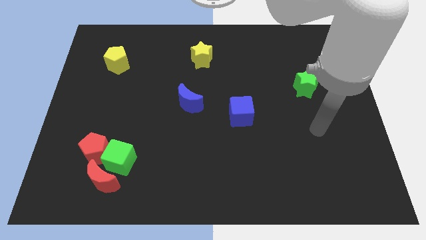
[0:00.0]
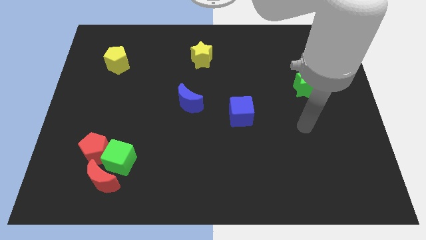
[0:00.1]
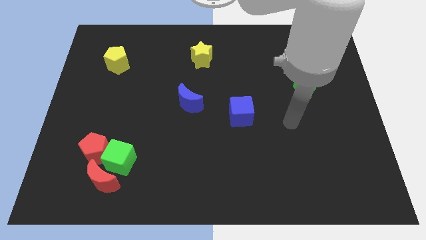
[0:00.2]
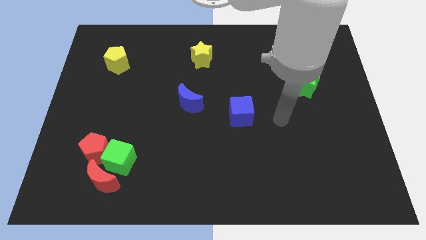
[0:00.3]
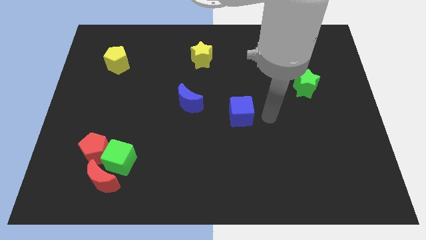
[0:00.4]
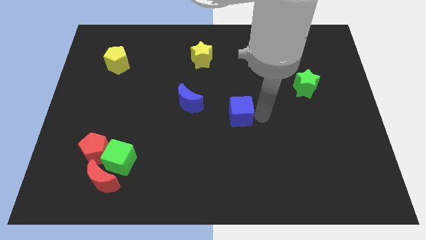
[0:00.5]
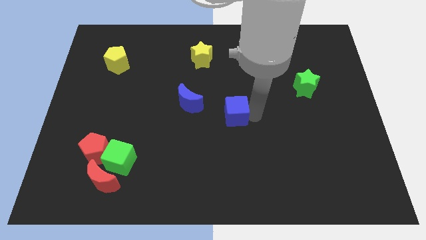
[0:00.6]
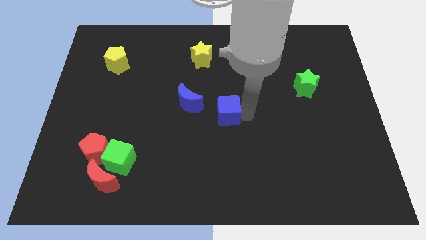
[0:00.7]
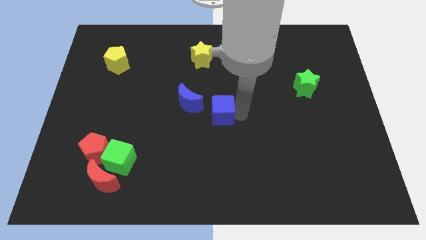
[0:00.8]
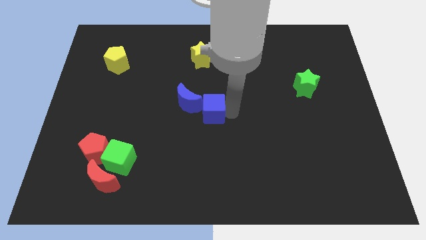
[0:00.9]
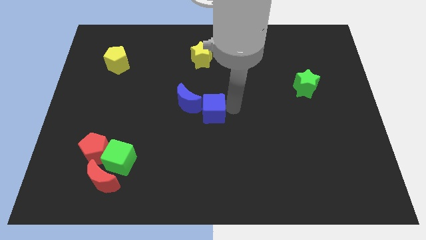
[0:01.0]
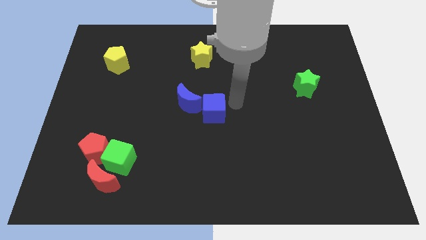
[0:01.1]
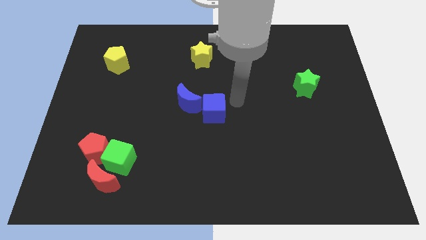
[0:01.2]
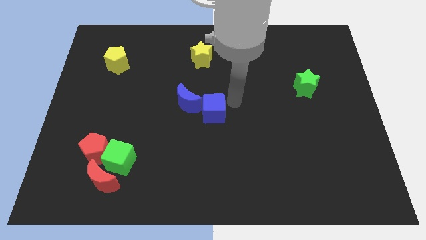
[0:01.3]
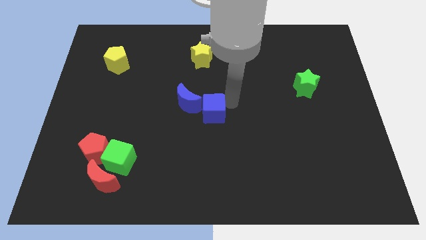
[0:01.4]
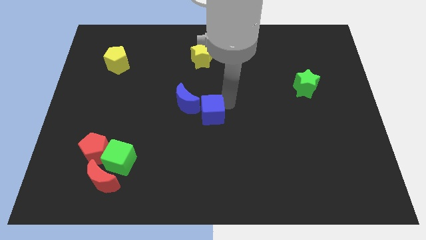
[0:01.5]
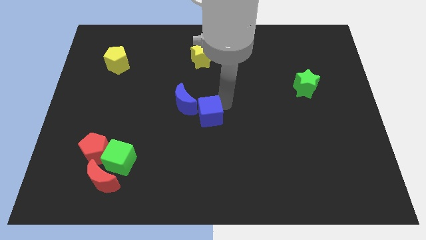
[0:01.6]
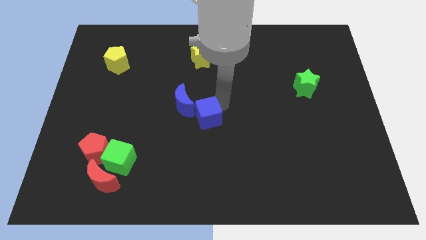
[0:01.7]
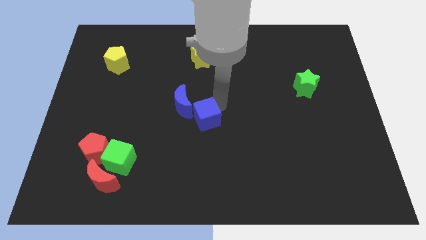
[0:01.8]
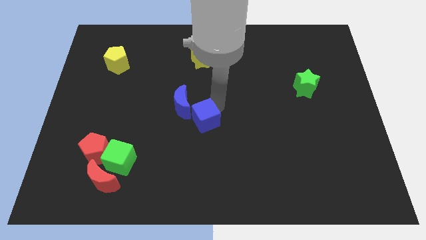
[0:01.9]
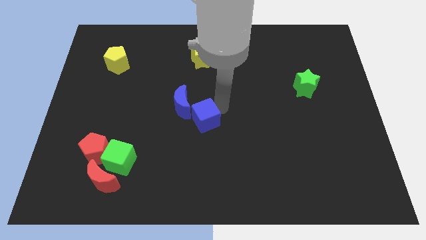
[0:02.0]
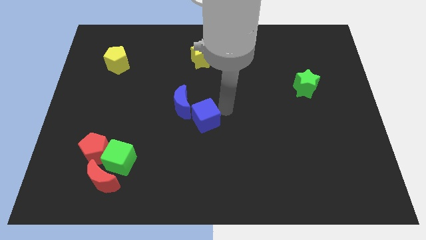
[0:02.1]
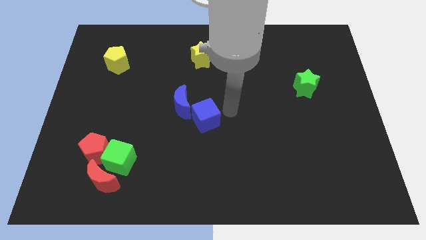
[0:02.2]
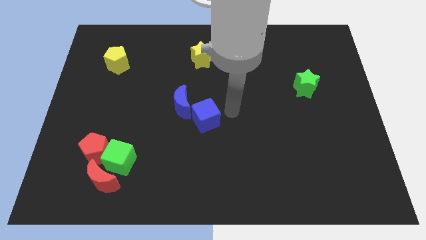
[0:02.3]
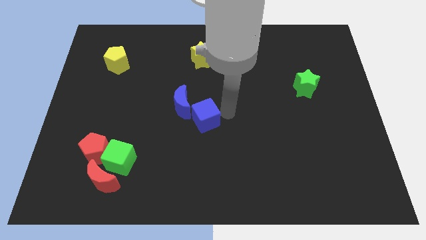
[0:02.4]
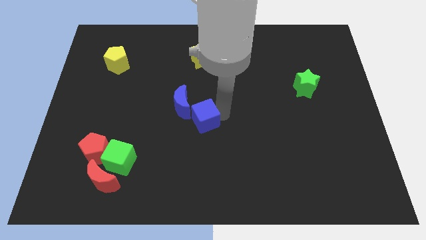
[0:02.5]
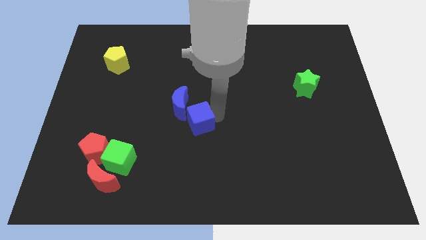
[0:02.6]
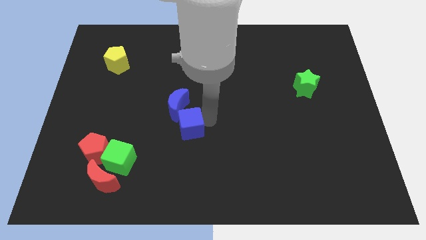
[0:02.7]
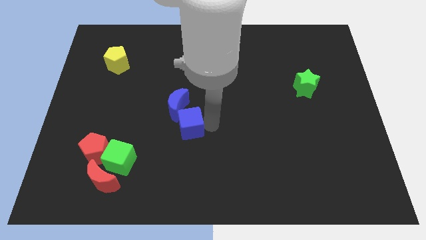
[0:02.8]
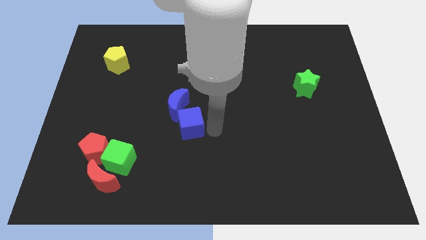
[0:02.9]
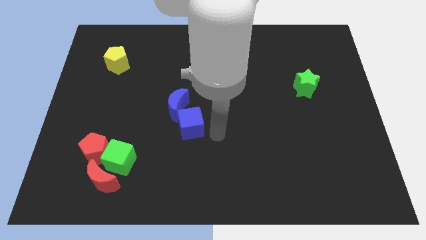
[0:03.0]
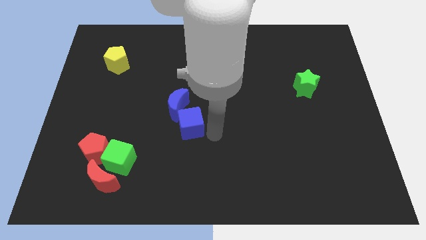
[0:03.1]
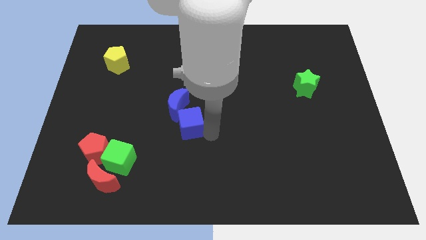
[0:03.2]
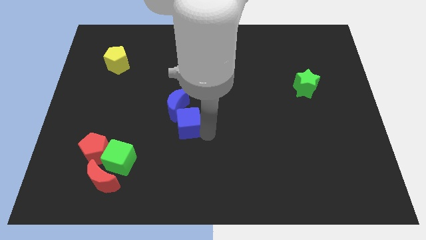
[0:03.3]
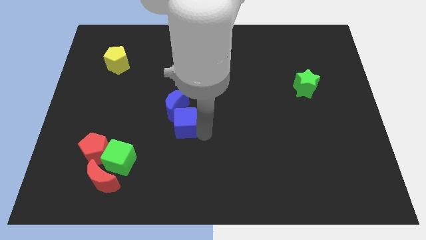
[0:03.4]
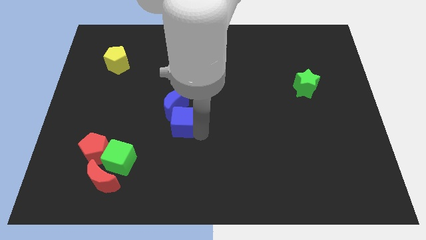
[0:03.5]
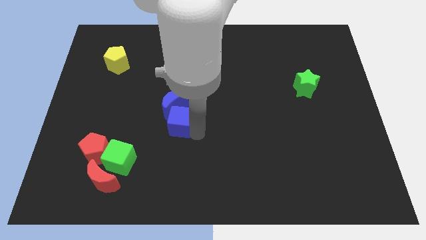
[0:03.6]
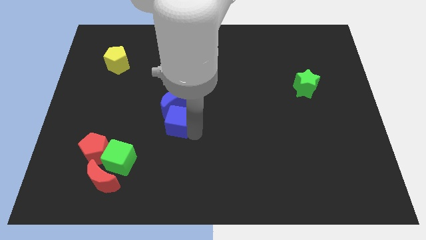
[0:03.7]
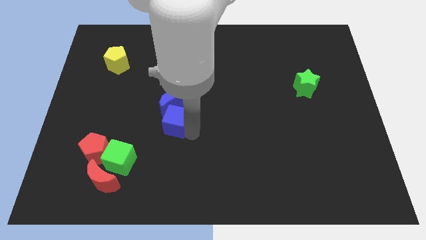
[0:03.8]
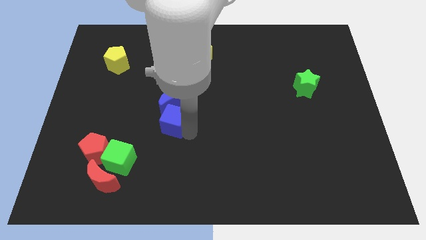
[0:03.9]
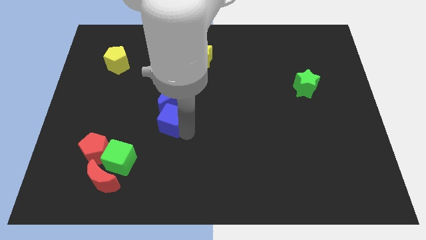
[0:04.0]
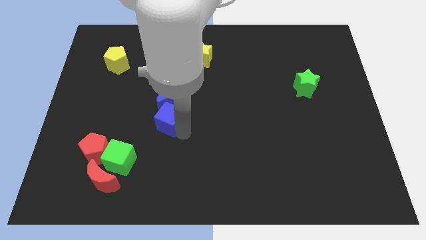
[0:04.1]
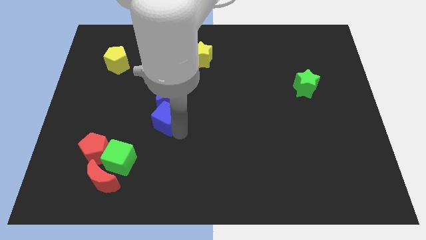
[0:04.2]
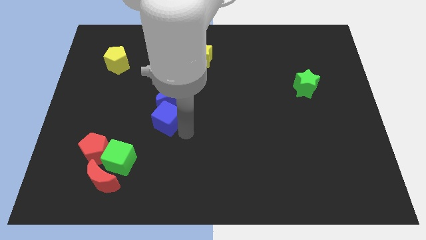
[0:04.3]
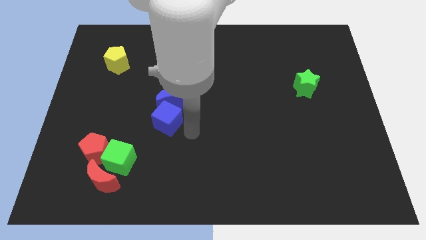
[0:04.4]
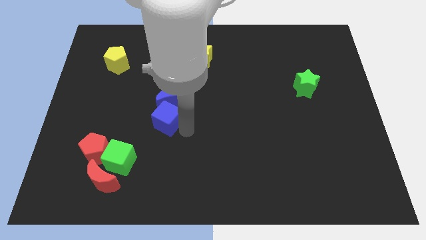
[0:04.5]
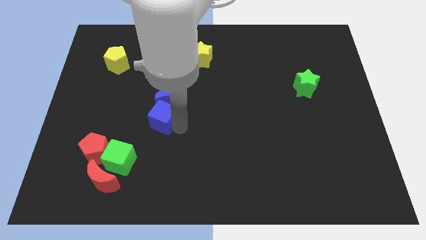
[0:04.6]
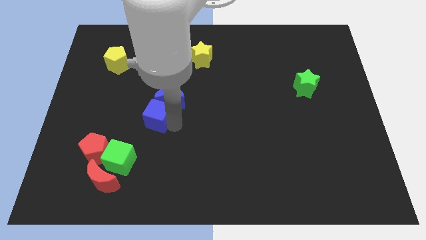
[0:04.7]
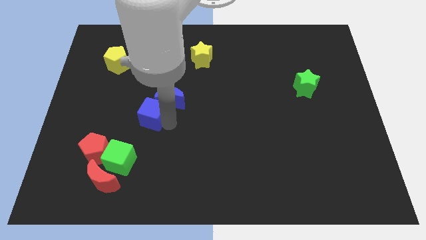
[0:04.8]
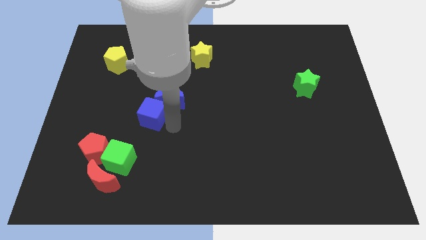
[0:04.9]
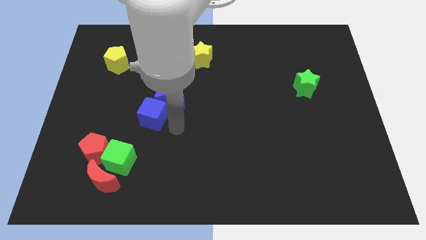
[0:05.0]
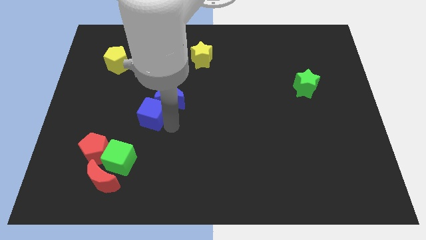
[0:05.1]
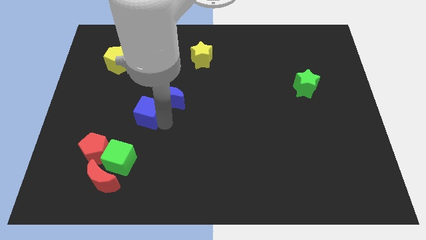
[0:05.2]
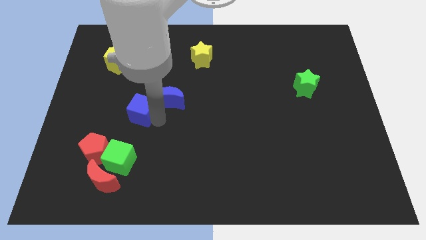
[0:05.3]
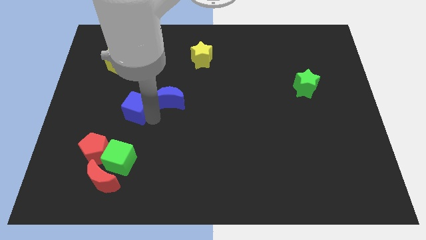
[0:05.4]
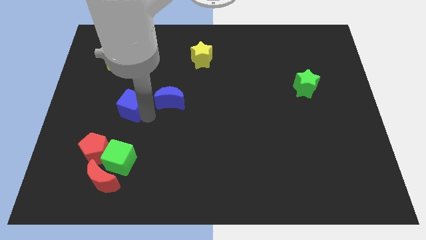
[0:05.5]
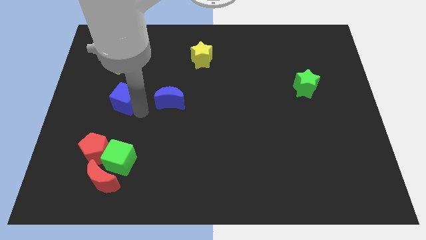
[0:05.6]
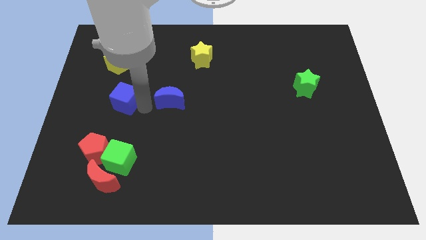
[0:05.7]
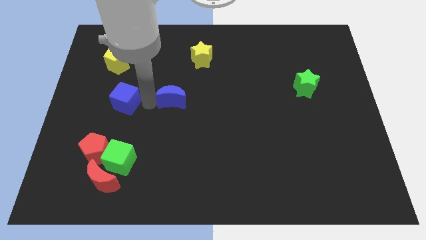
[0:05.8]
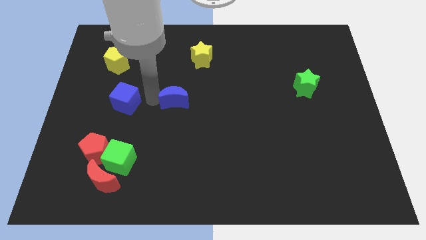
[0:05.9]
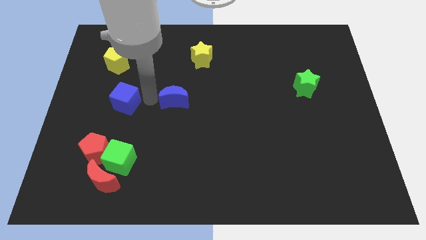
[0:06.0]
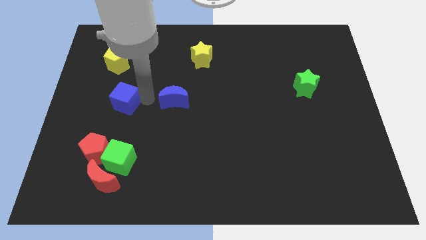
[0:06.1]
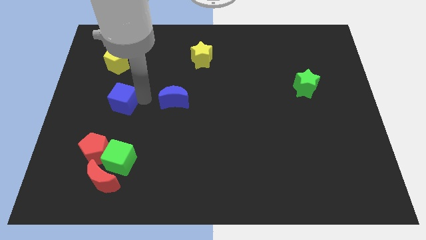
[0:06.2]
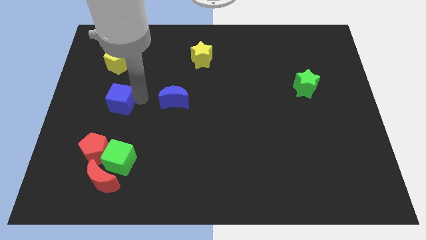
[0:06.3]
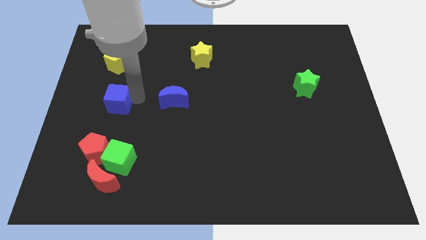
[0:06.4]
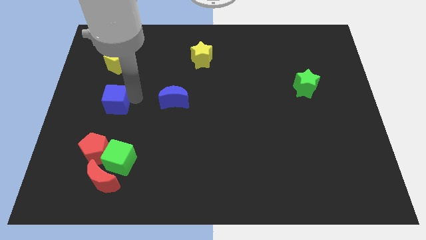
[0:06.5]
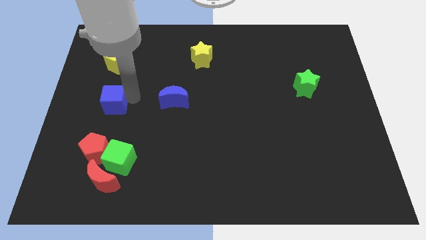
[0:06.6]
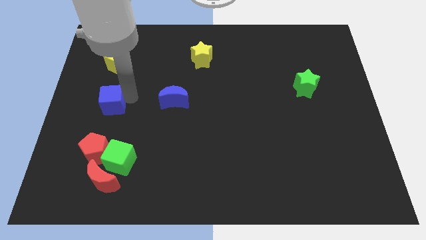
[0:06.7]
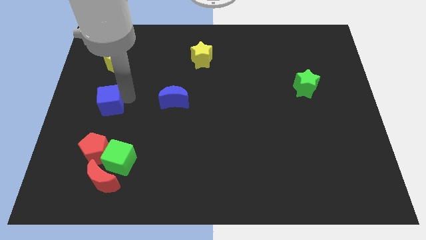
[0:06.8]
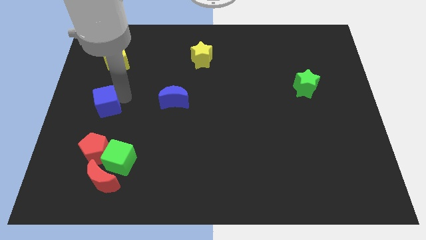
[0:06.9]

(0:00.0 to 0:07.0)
push the blue cube to the left side

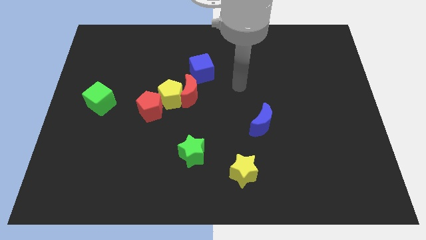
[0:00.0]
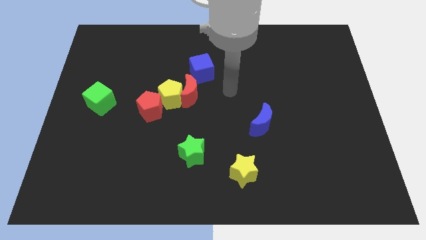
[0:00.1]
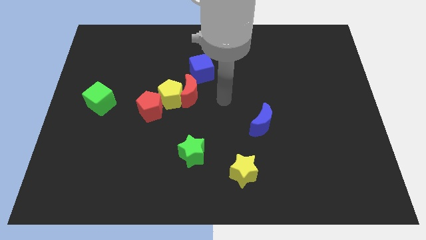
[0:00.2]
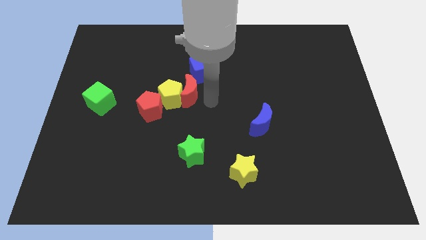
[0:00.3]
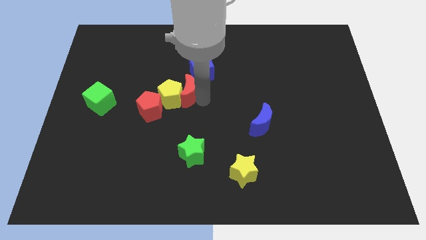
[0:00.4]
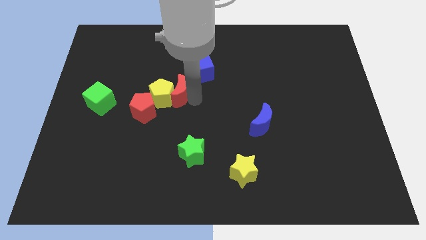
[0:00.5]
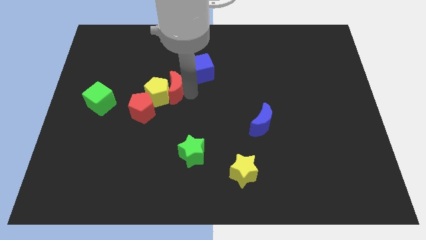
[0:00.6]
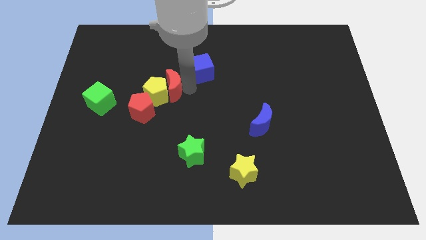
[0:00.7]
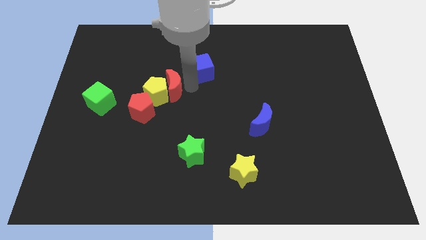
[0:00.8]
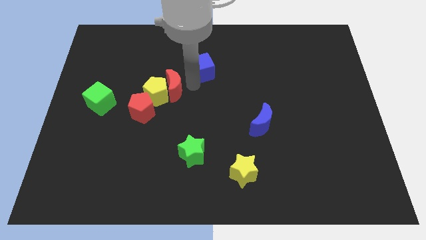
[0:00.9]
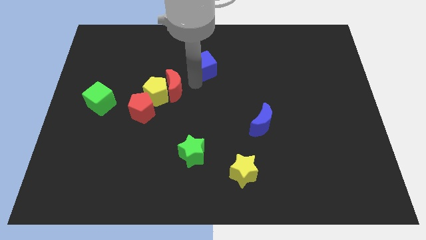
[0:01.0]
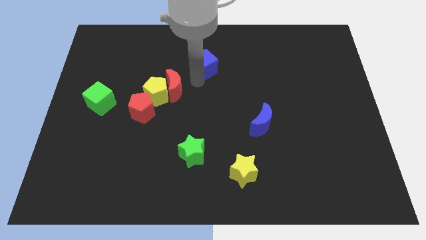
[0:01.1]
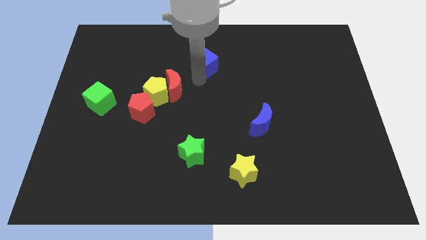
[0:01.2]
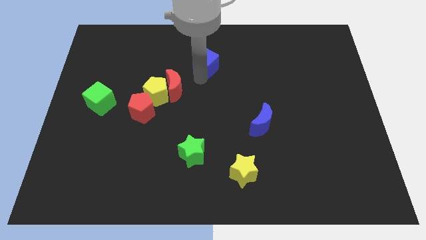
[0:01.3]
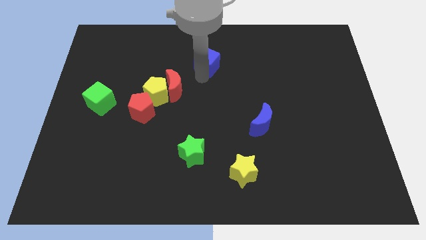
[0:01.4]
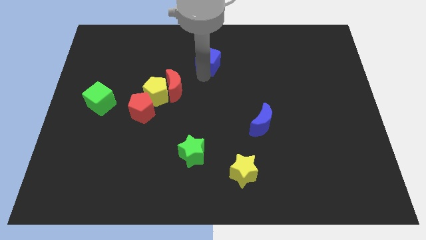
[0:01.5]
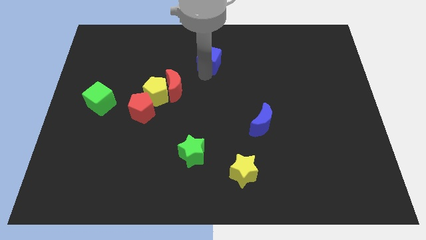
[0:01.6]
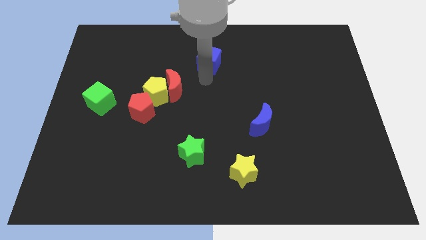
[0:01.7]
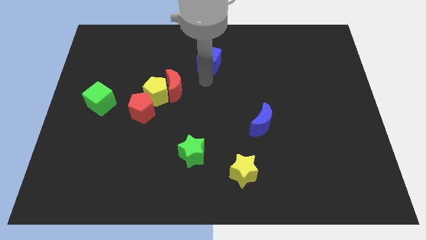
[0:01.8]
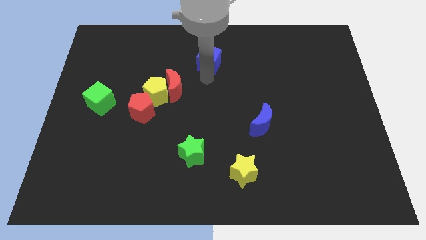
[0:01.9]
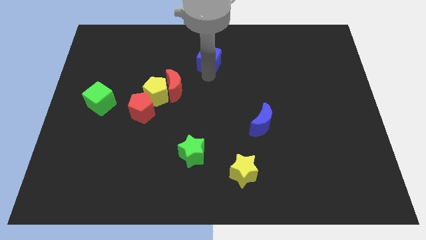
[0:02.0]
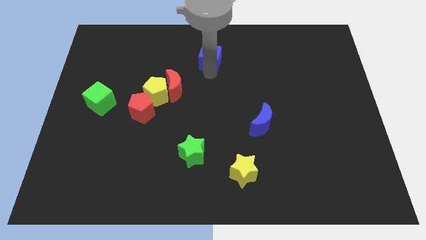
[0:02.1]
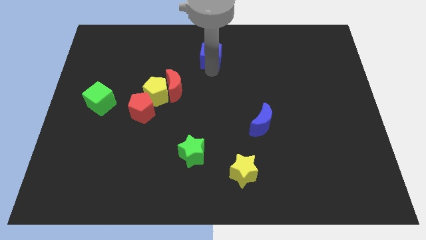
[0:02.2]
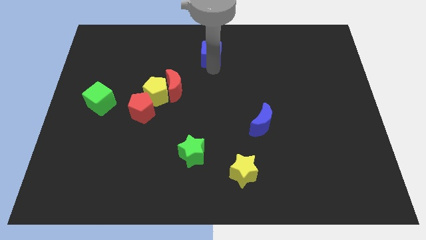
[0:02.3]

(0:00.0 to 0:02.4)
move the blue cube to the towards your base
